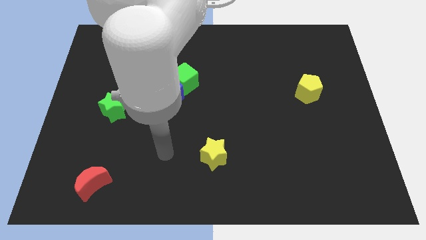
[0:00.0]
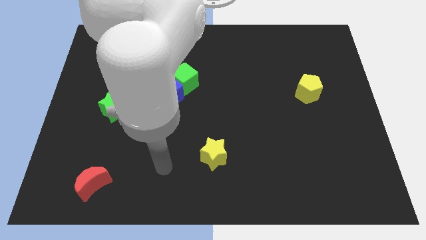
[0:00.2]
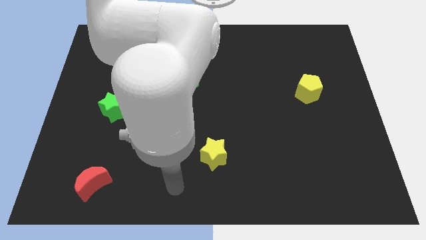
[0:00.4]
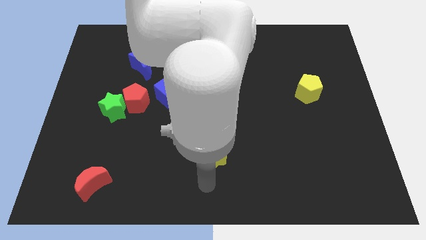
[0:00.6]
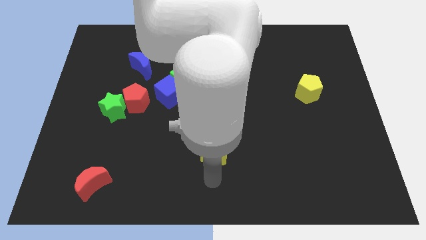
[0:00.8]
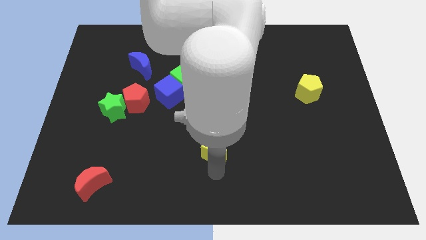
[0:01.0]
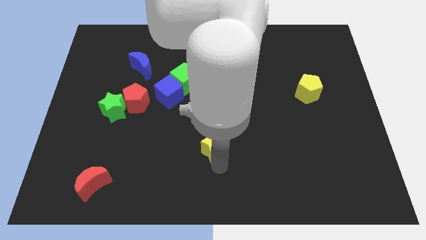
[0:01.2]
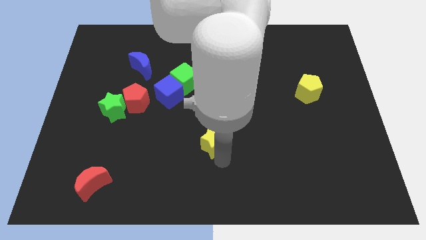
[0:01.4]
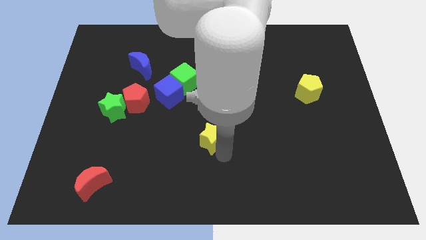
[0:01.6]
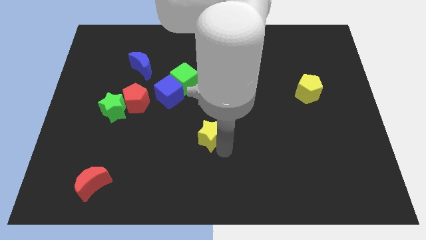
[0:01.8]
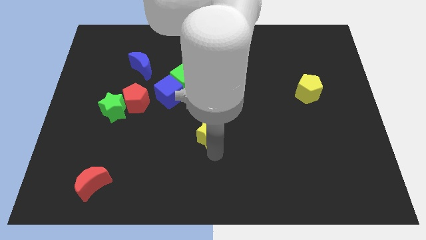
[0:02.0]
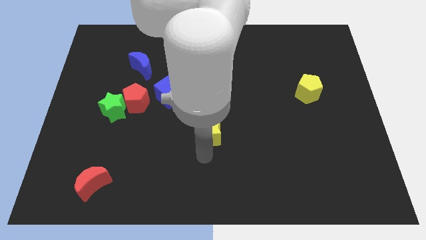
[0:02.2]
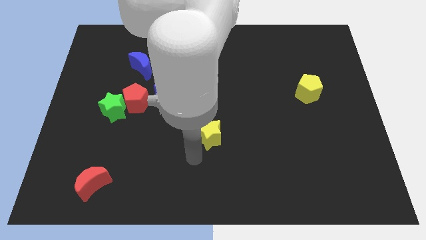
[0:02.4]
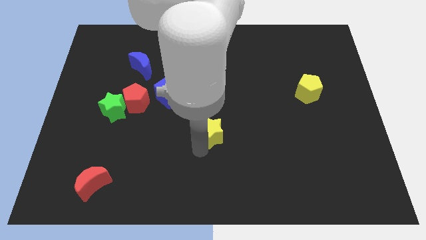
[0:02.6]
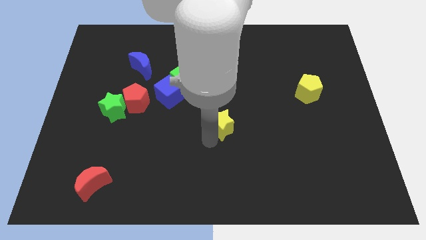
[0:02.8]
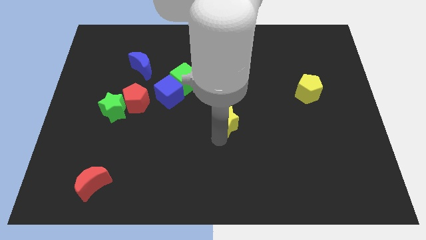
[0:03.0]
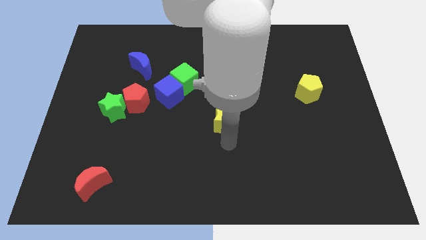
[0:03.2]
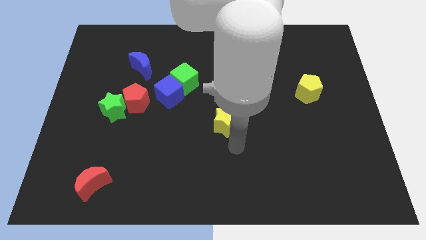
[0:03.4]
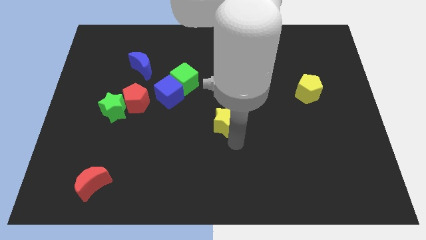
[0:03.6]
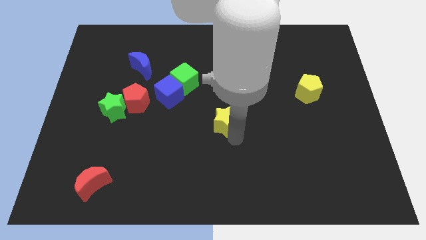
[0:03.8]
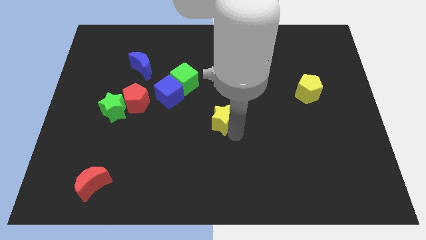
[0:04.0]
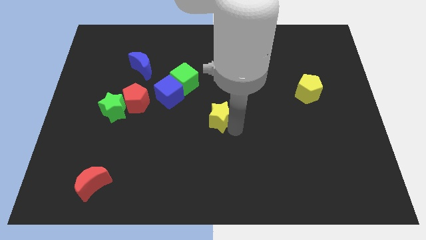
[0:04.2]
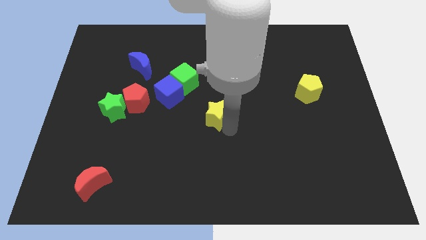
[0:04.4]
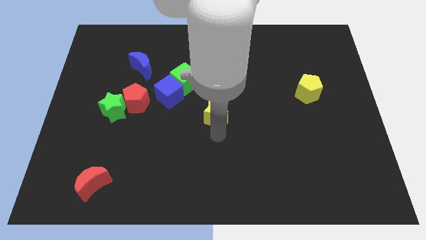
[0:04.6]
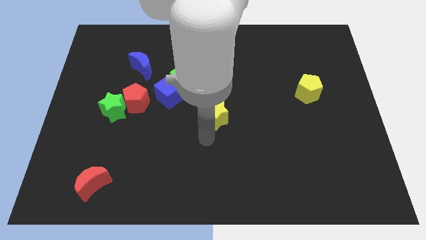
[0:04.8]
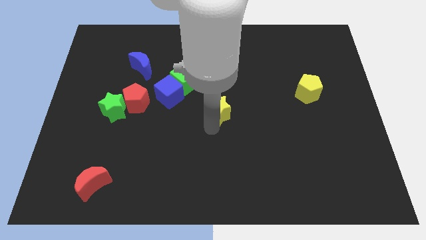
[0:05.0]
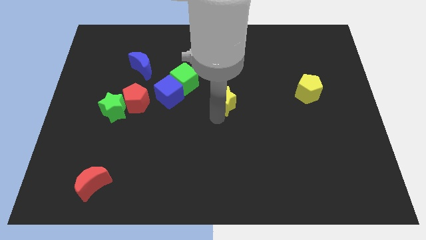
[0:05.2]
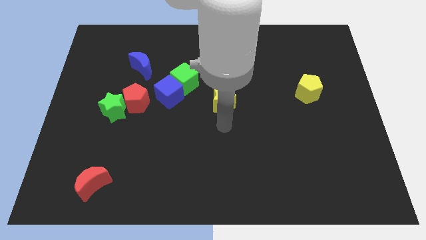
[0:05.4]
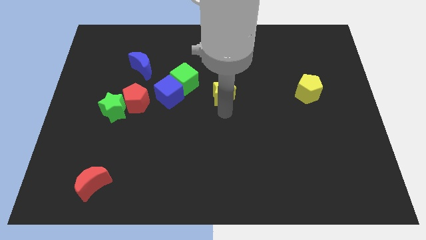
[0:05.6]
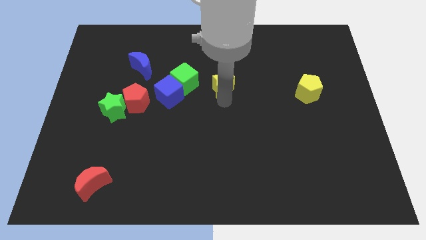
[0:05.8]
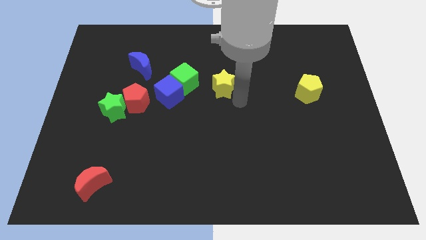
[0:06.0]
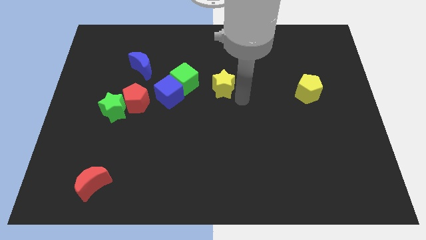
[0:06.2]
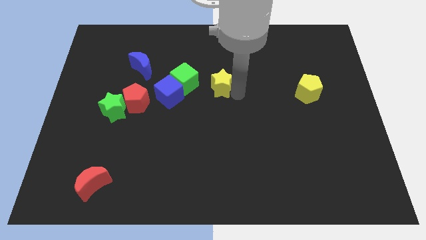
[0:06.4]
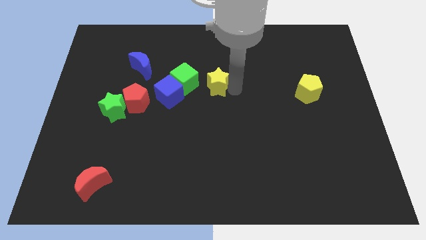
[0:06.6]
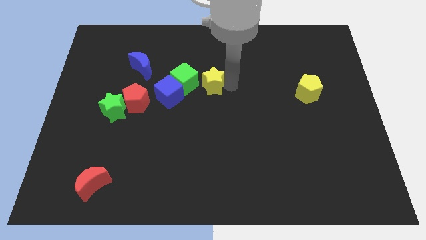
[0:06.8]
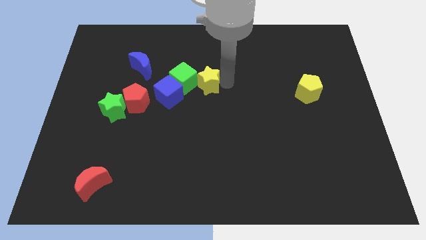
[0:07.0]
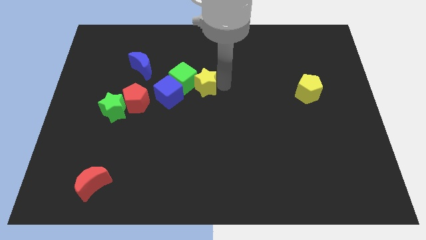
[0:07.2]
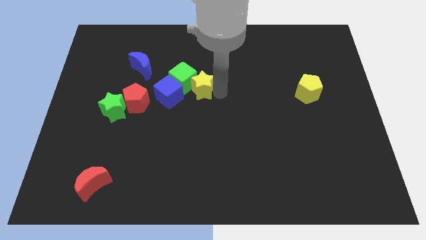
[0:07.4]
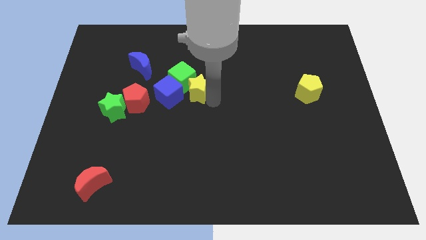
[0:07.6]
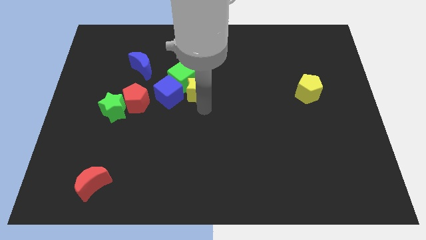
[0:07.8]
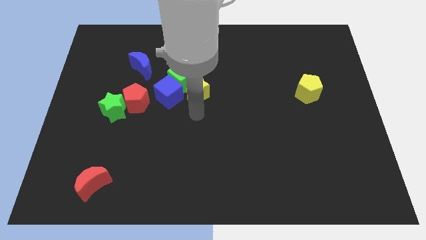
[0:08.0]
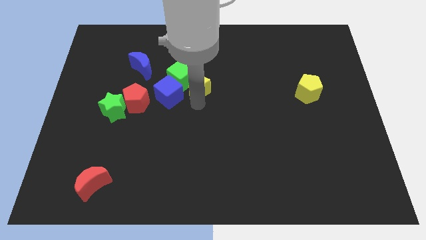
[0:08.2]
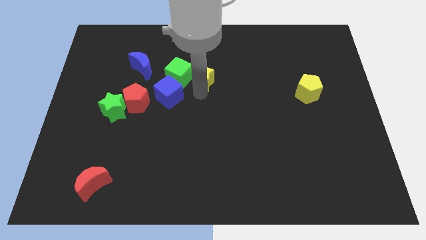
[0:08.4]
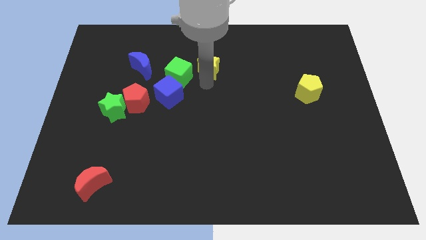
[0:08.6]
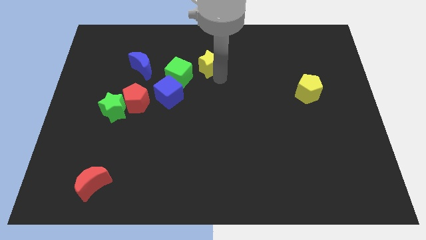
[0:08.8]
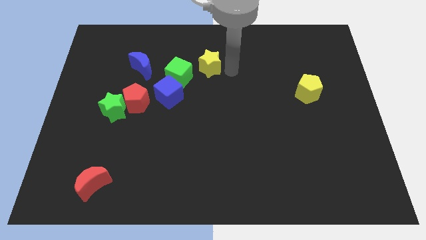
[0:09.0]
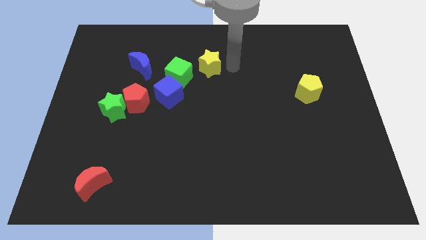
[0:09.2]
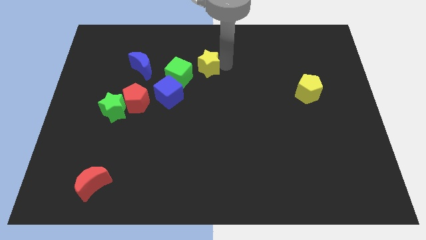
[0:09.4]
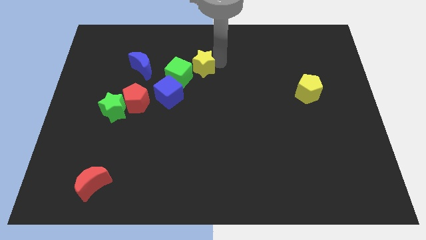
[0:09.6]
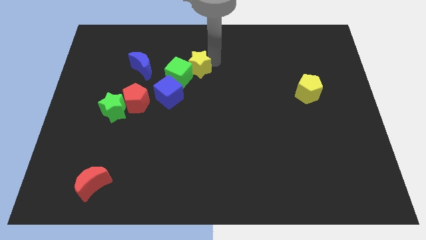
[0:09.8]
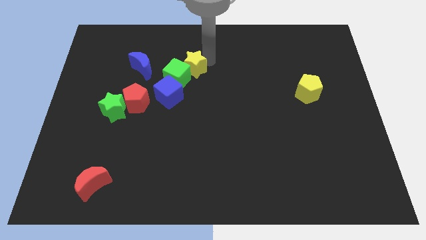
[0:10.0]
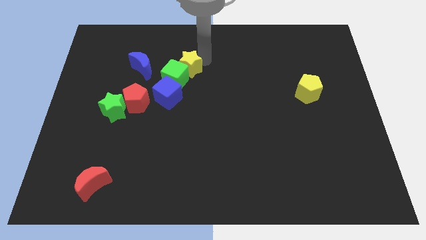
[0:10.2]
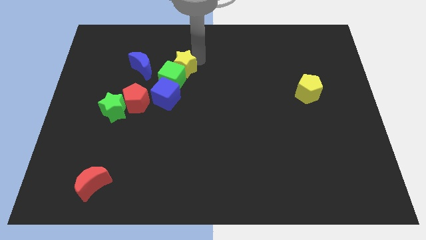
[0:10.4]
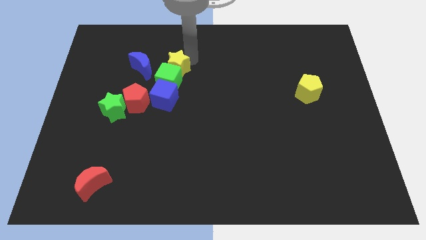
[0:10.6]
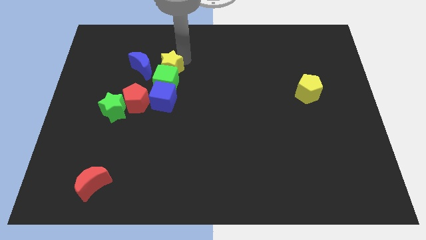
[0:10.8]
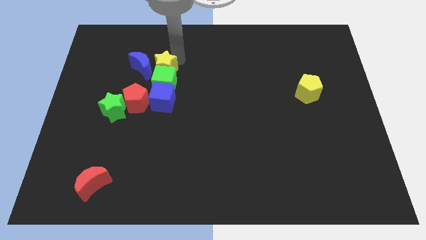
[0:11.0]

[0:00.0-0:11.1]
put the yellow star to the blue moon

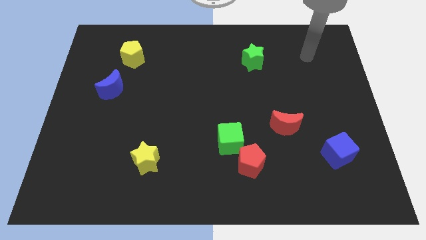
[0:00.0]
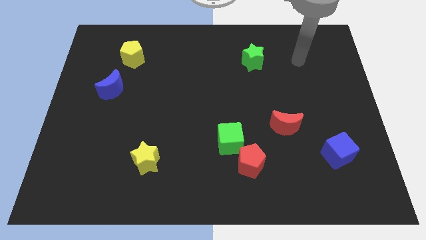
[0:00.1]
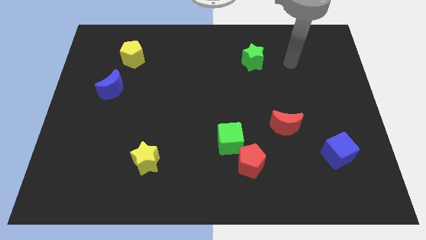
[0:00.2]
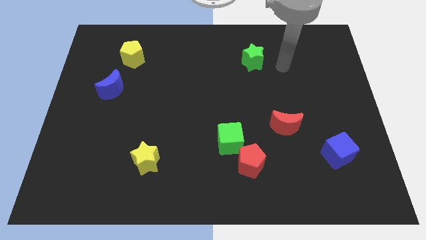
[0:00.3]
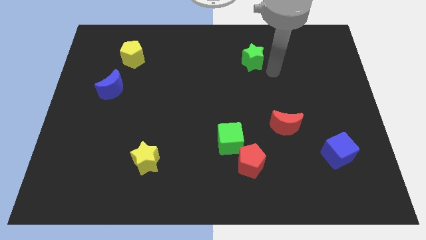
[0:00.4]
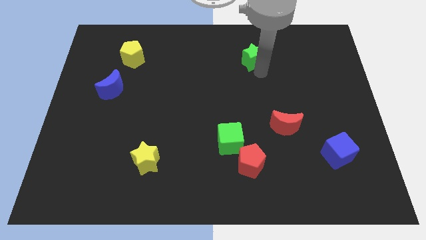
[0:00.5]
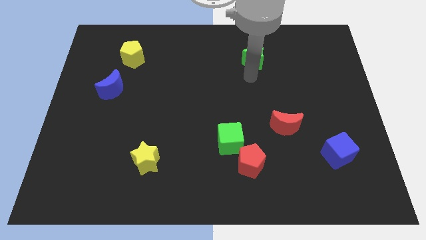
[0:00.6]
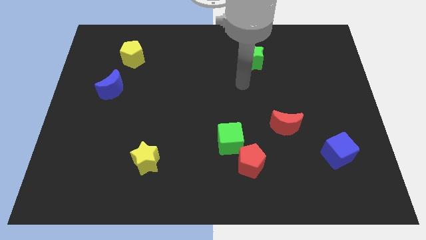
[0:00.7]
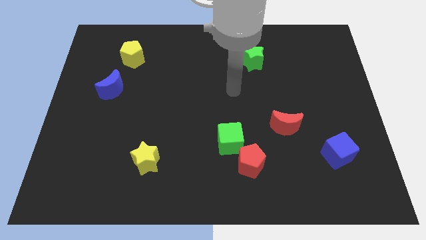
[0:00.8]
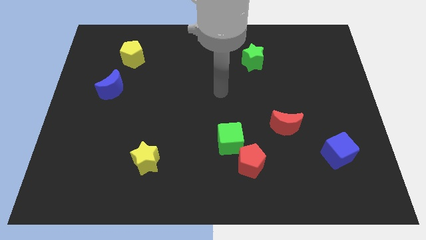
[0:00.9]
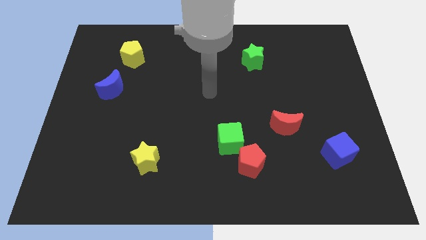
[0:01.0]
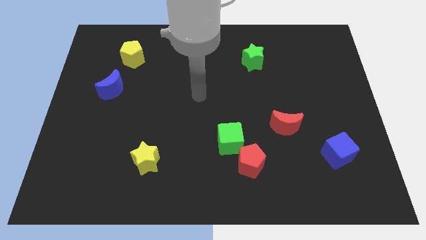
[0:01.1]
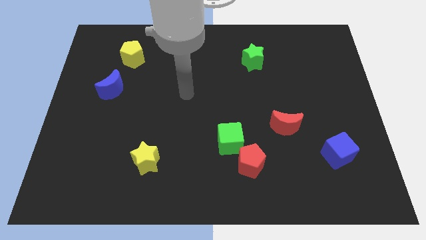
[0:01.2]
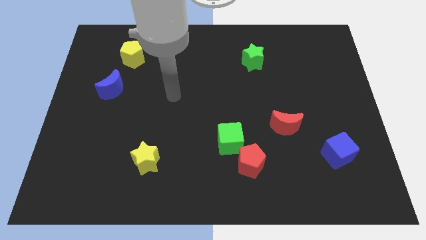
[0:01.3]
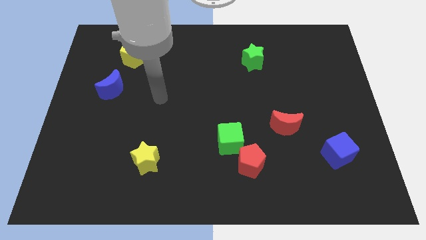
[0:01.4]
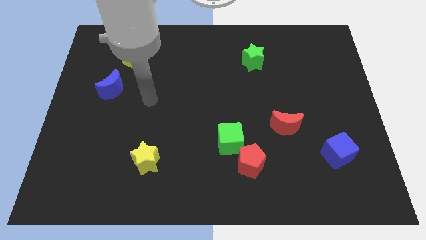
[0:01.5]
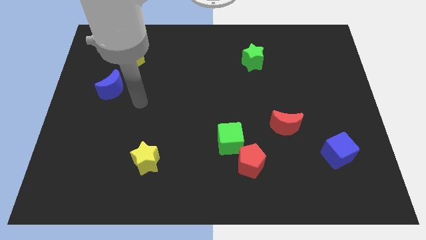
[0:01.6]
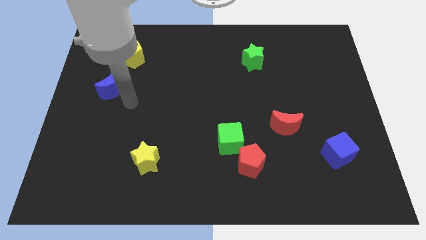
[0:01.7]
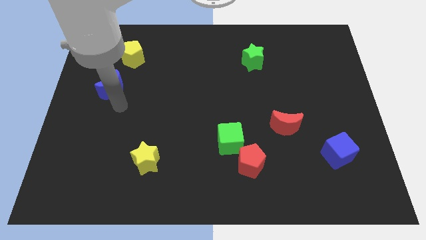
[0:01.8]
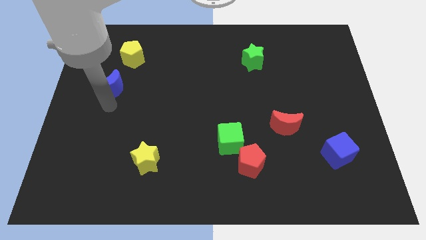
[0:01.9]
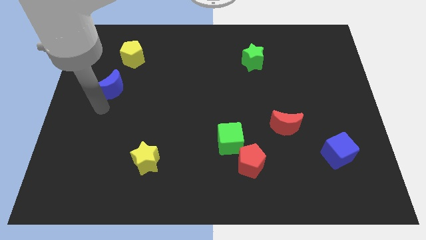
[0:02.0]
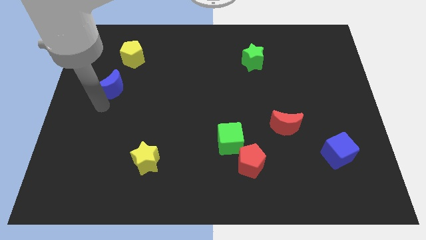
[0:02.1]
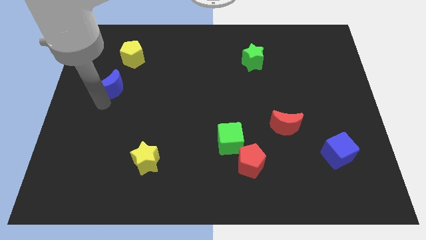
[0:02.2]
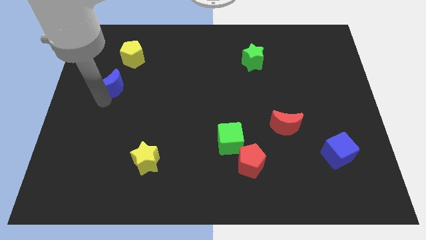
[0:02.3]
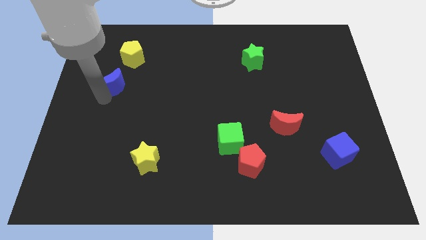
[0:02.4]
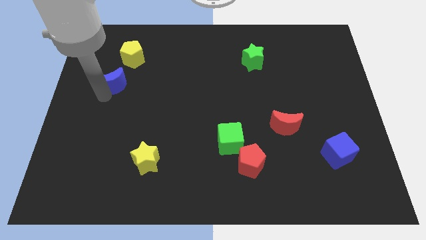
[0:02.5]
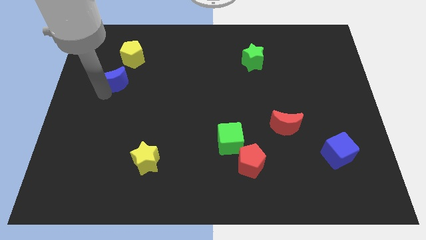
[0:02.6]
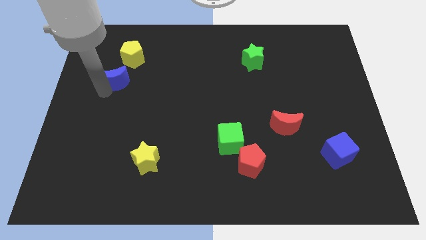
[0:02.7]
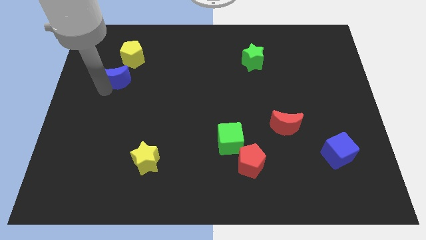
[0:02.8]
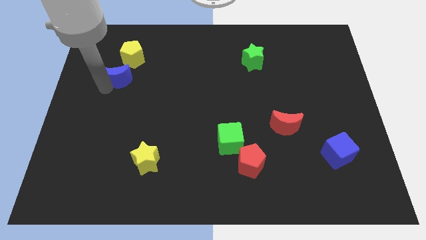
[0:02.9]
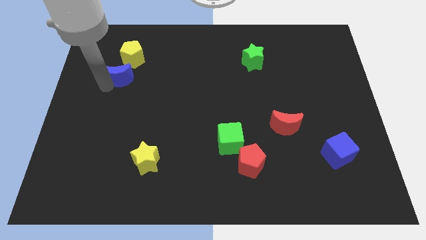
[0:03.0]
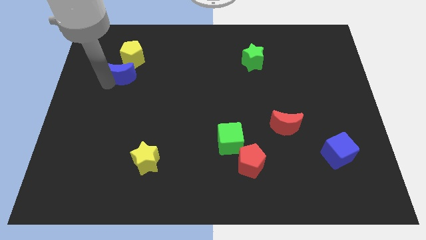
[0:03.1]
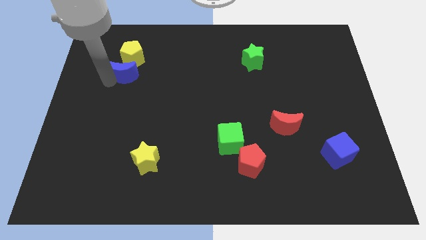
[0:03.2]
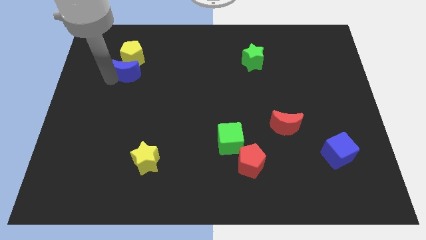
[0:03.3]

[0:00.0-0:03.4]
move the blue moon next to the yellow pentagon
